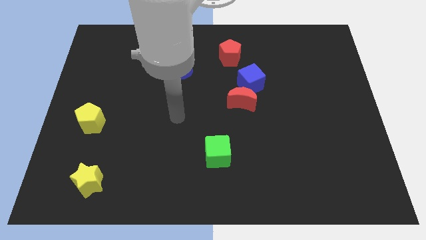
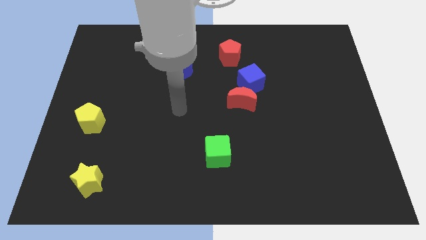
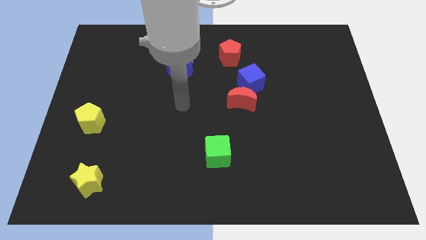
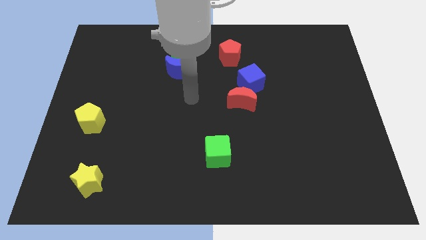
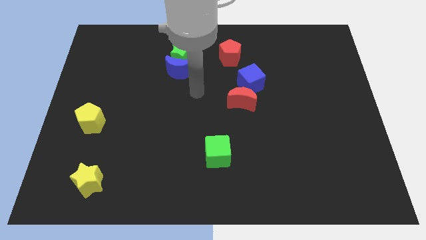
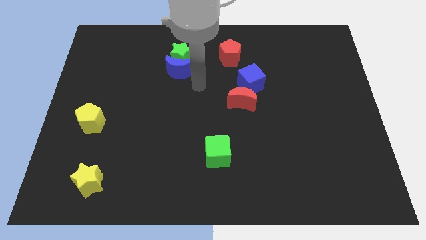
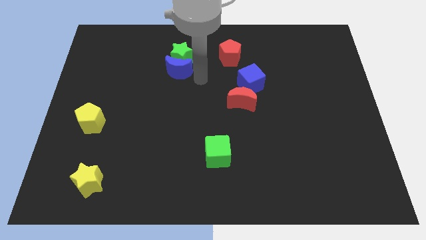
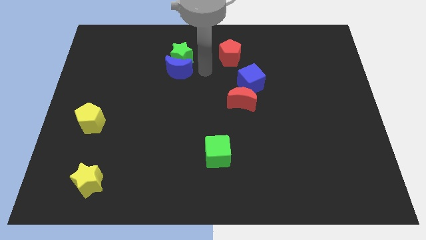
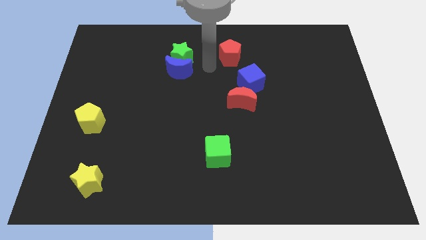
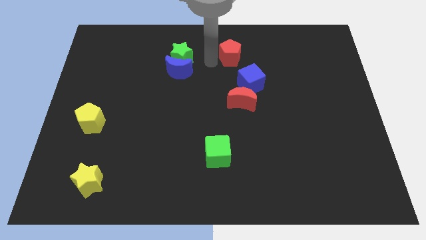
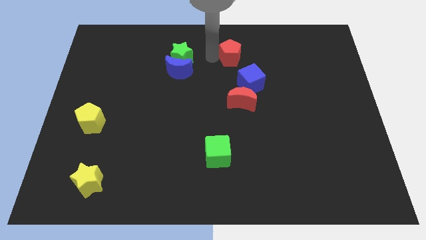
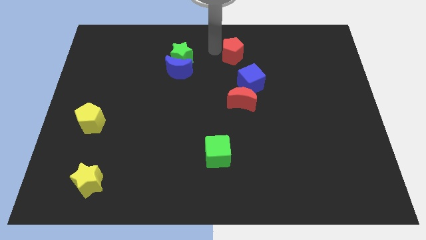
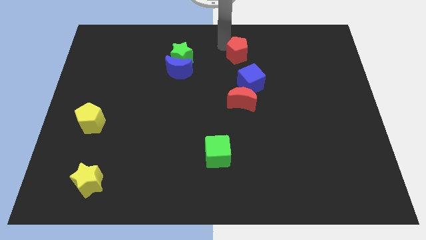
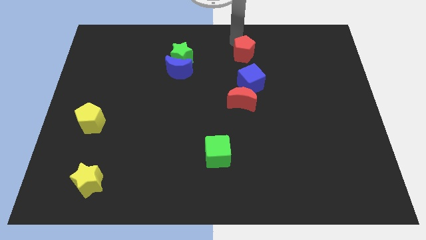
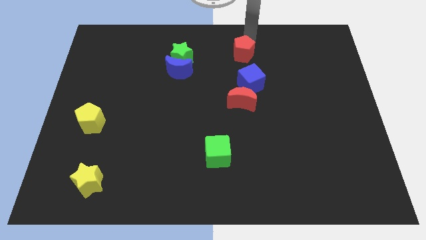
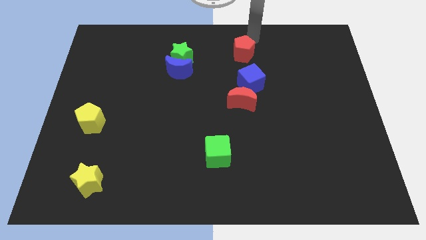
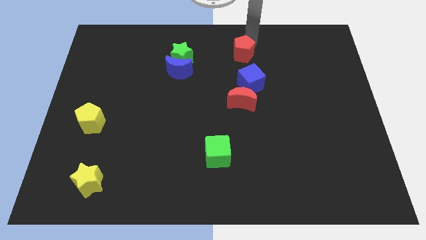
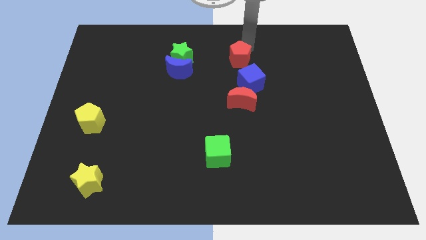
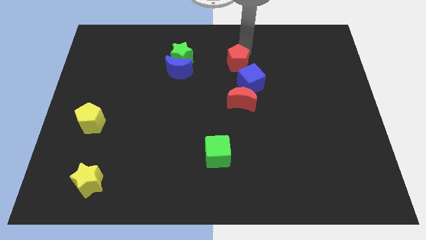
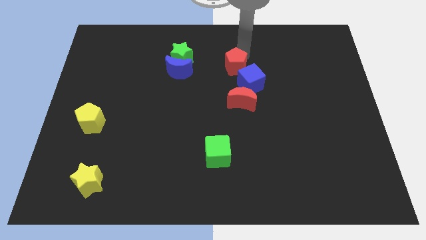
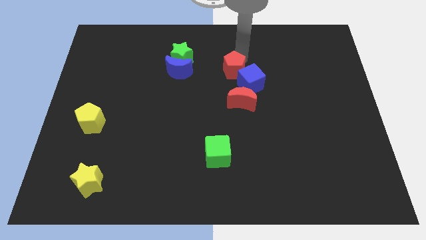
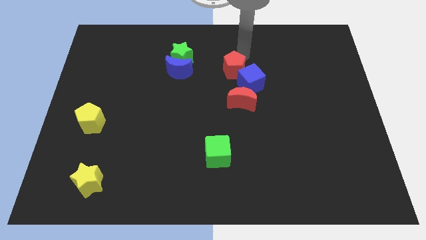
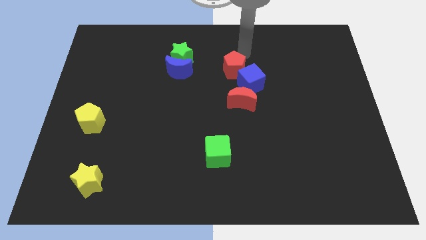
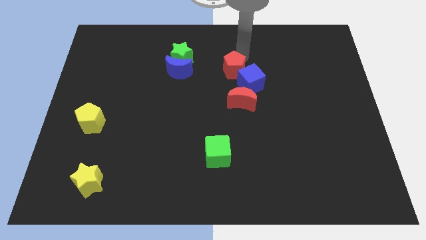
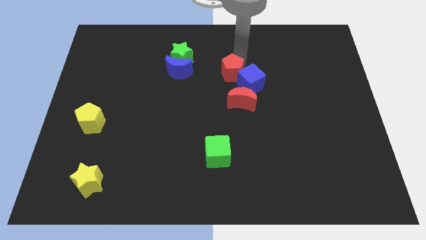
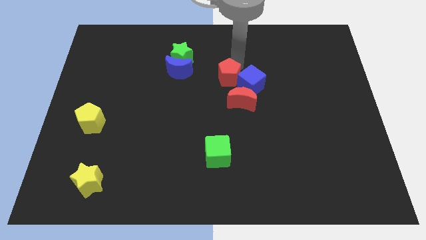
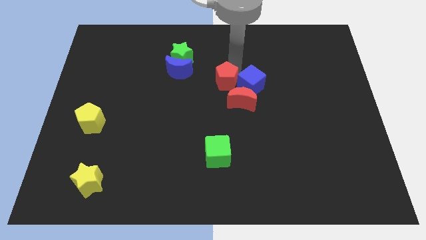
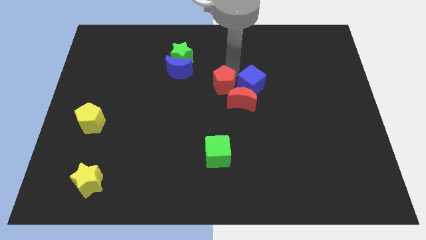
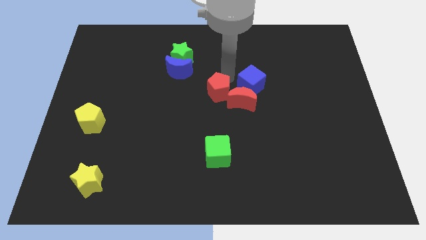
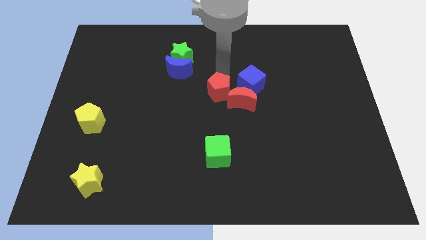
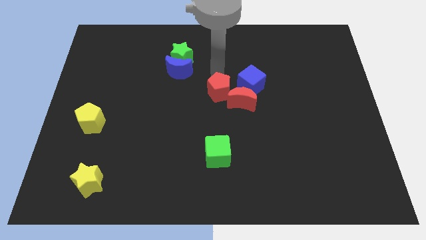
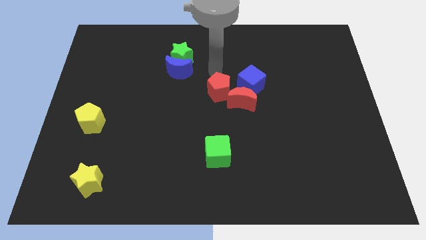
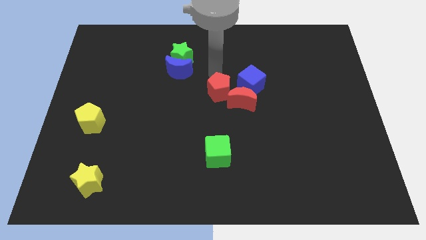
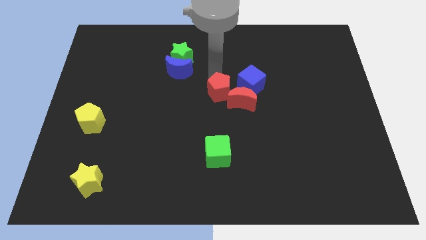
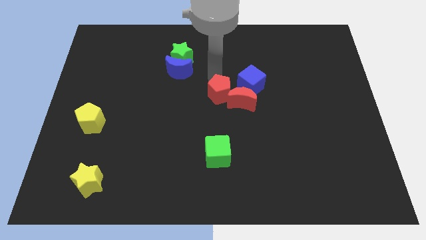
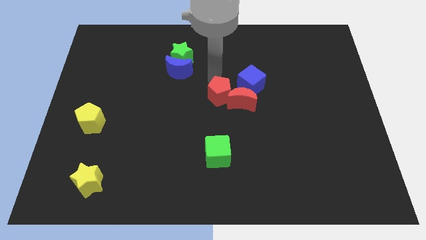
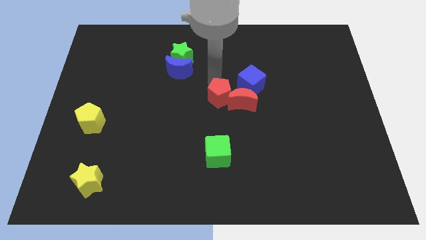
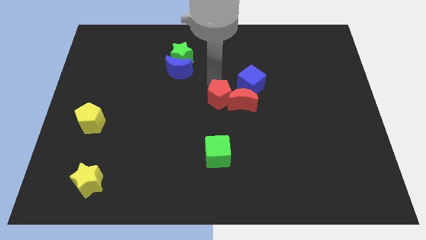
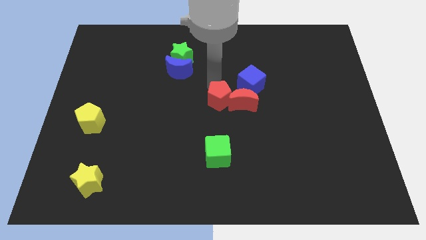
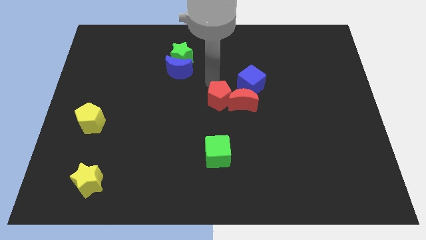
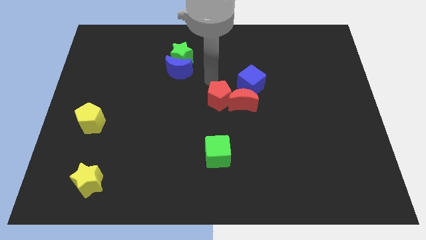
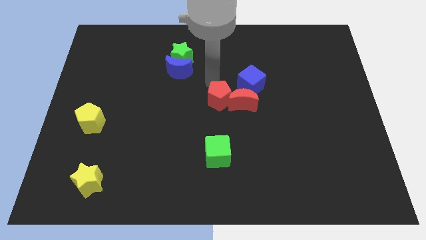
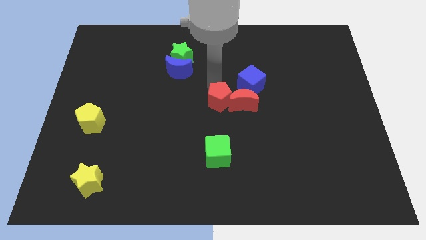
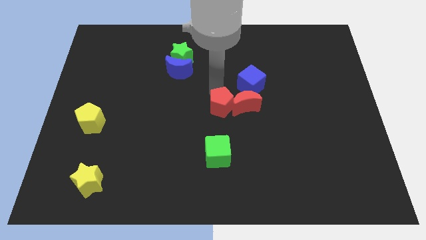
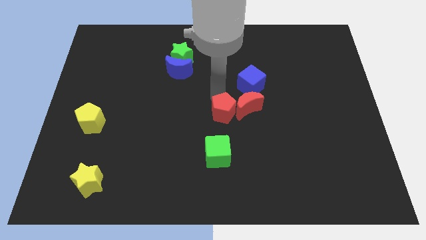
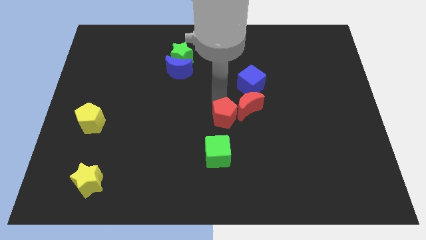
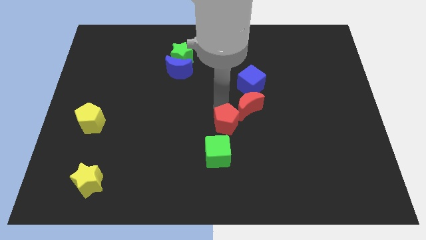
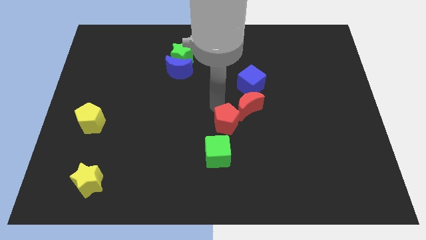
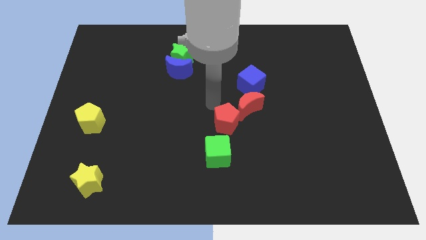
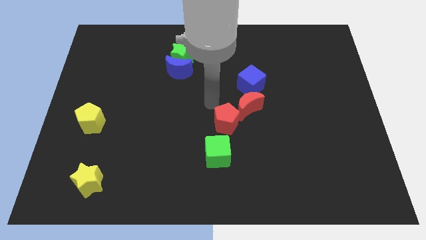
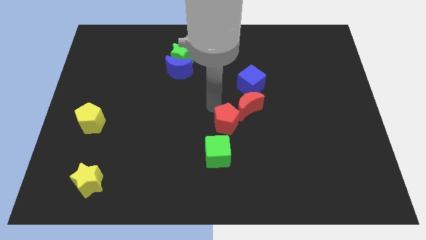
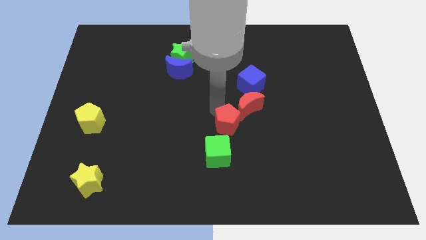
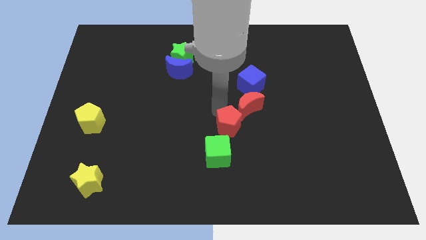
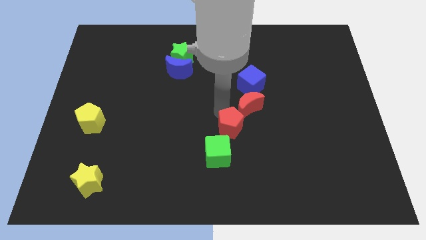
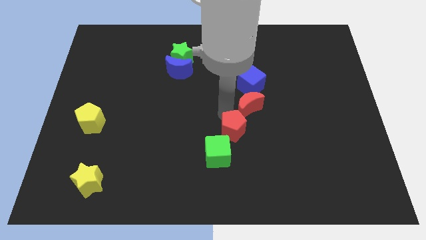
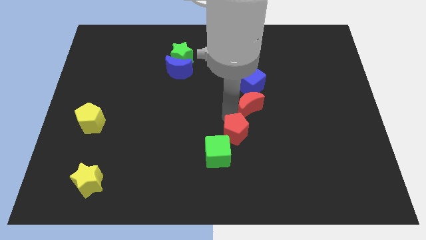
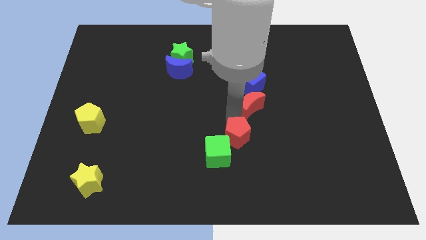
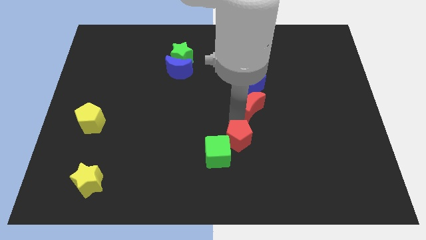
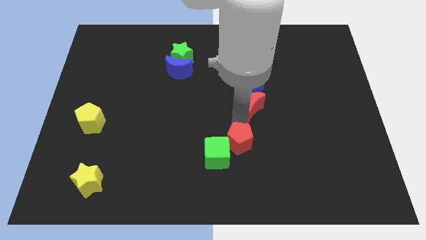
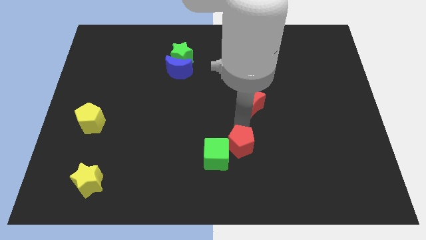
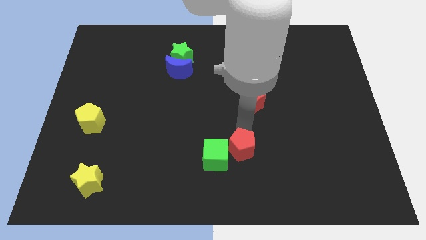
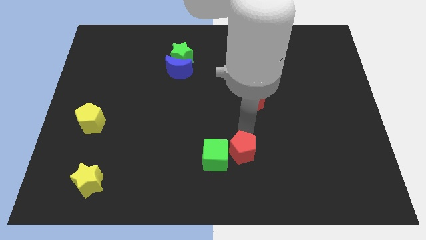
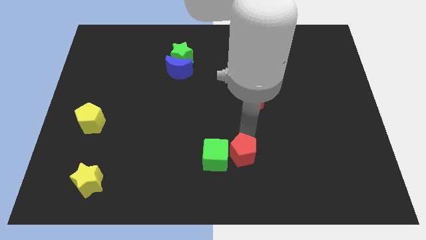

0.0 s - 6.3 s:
put the red pentagon to the bottom right side of the green cube

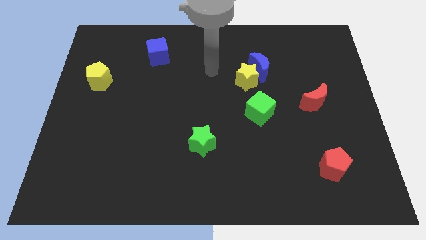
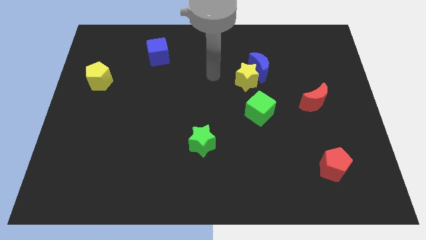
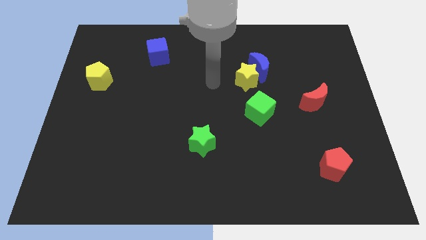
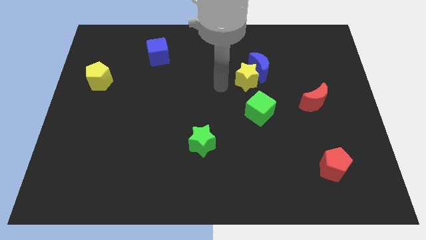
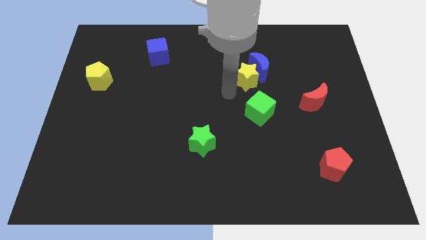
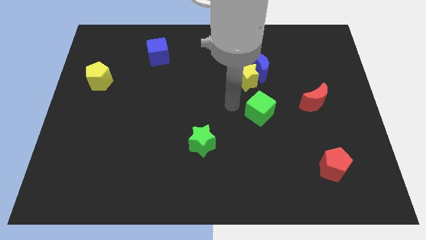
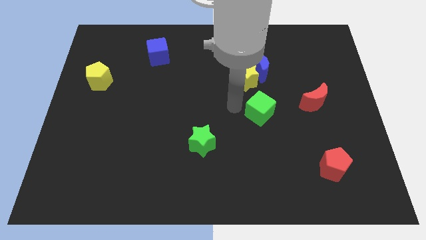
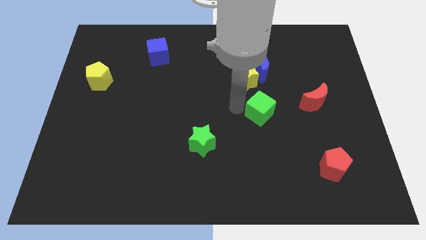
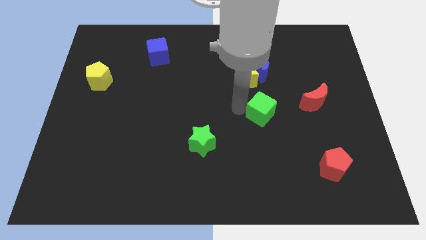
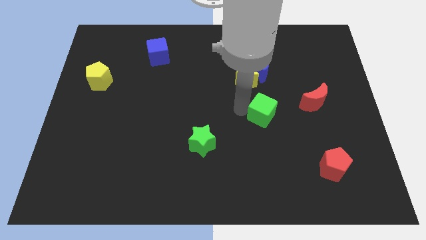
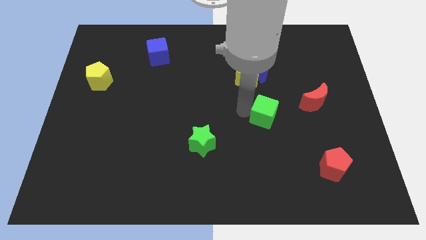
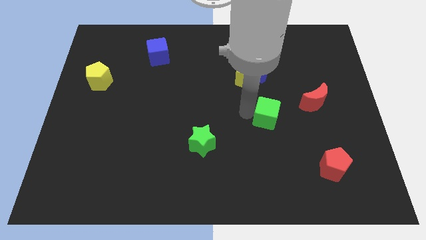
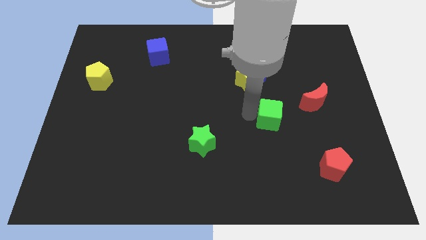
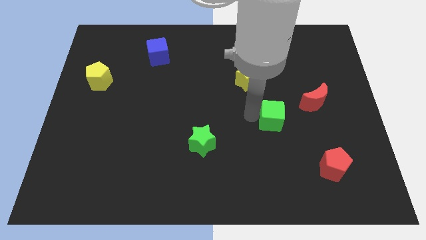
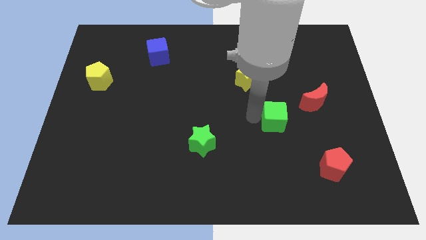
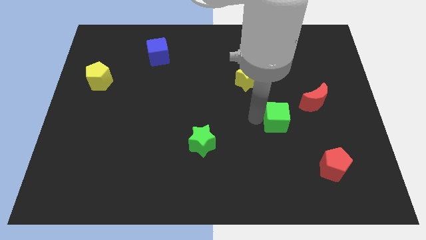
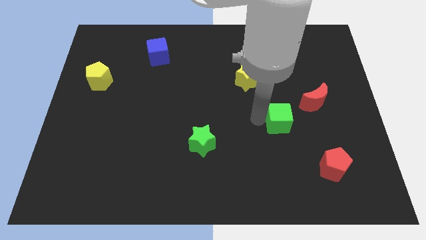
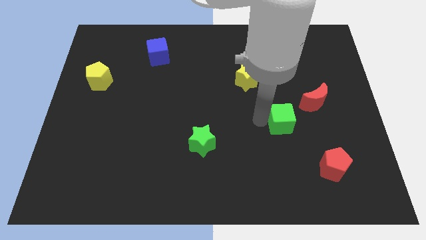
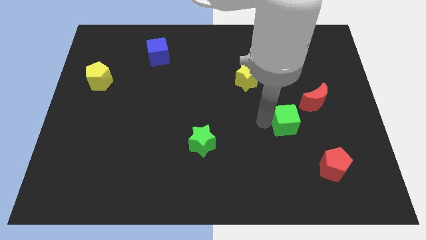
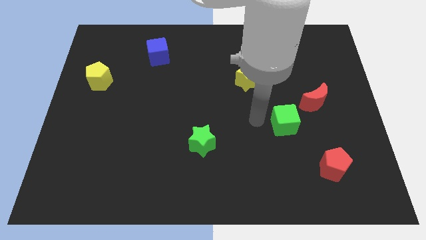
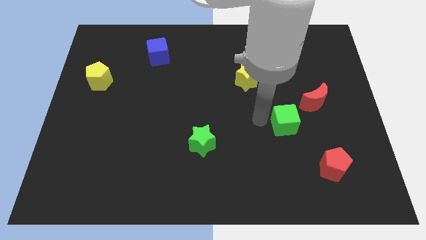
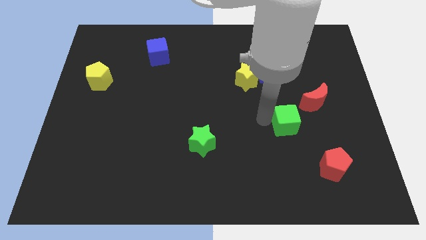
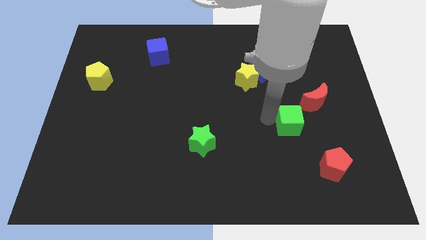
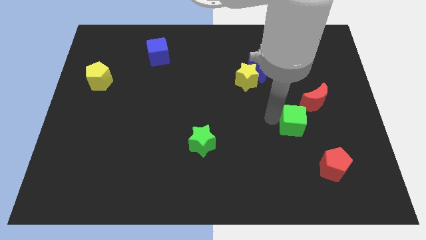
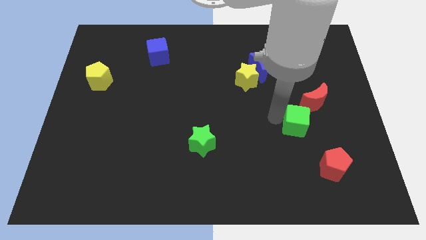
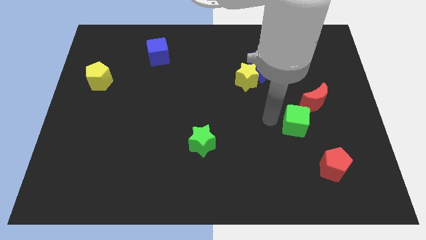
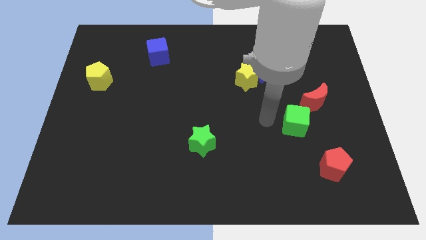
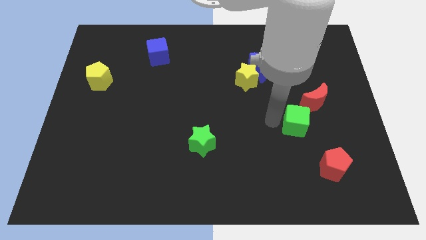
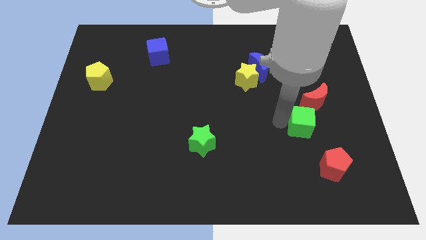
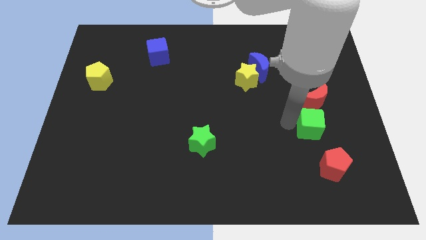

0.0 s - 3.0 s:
push the green cube to the top side of the red pentagon
